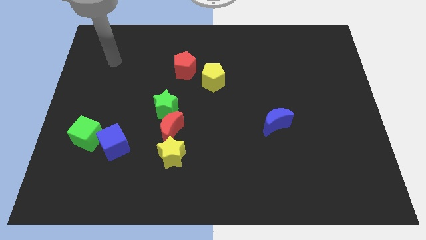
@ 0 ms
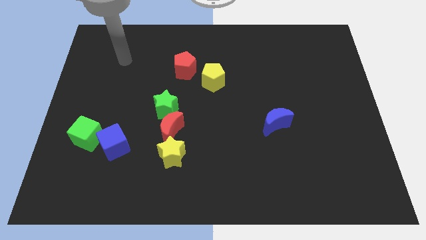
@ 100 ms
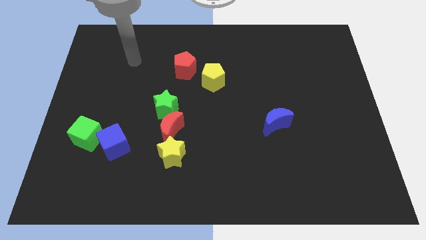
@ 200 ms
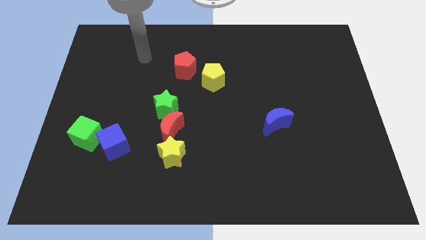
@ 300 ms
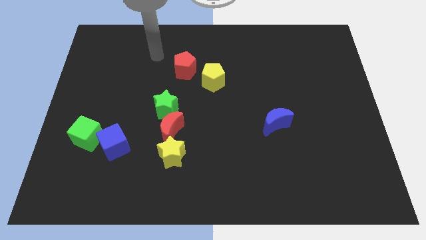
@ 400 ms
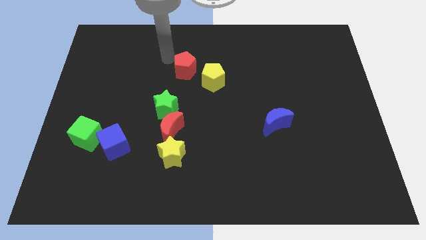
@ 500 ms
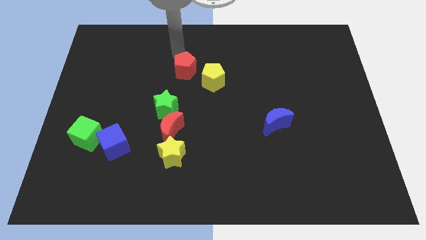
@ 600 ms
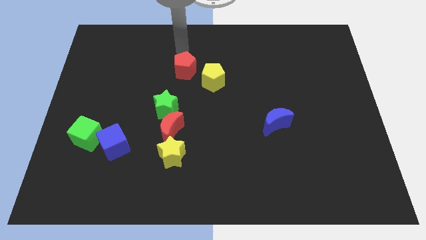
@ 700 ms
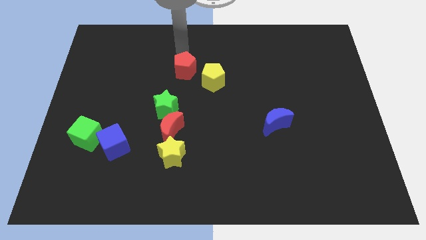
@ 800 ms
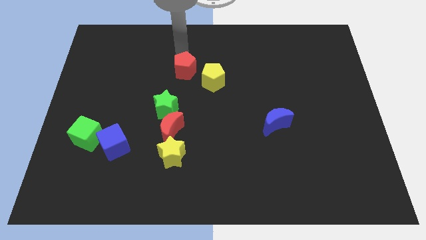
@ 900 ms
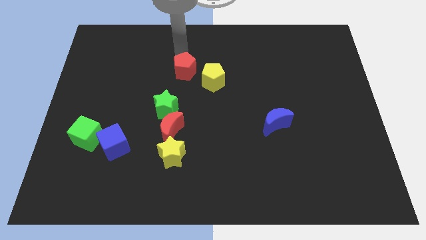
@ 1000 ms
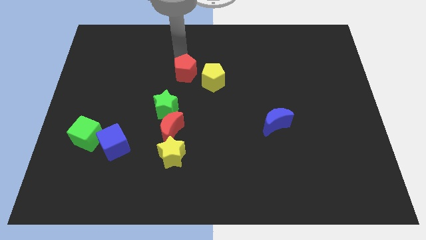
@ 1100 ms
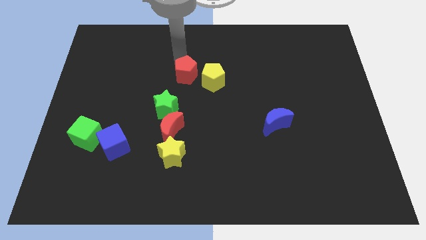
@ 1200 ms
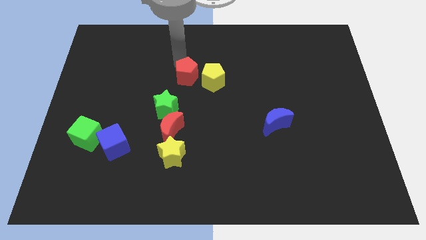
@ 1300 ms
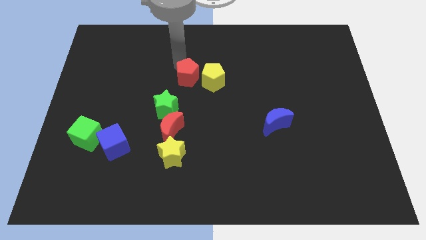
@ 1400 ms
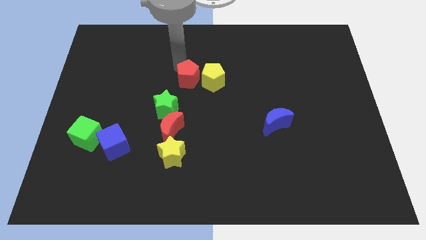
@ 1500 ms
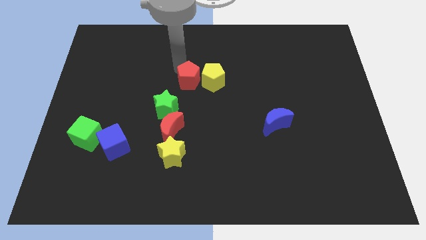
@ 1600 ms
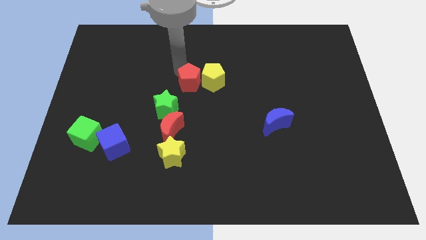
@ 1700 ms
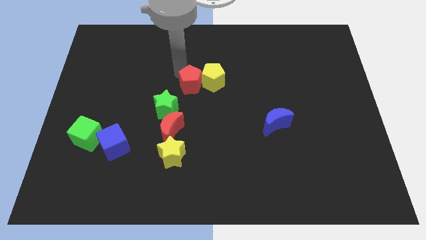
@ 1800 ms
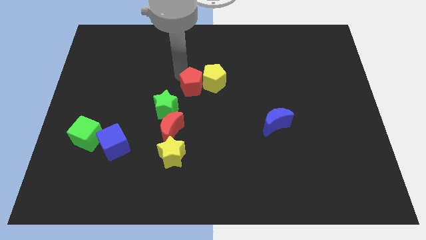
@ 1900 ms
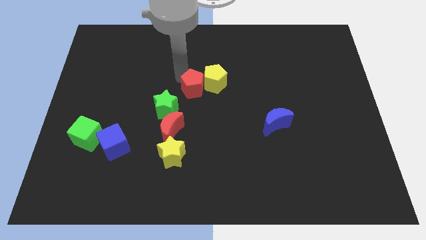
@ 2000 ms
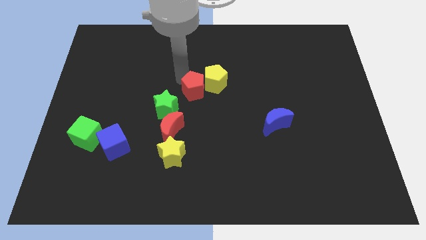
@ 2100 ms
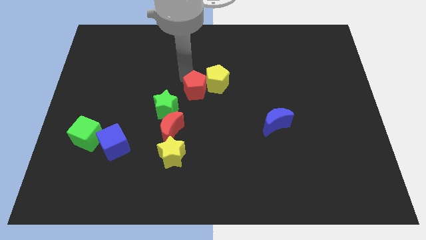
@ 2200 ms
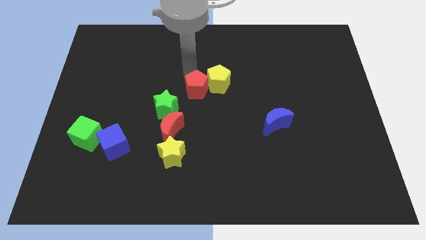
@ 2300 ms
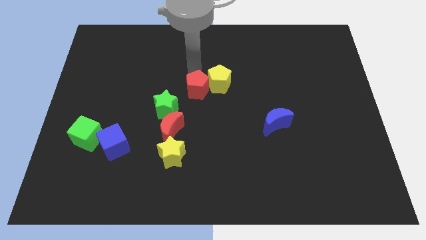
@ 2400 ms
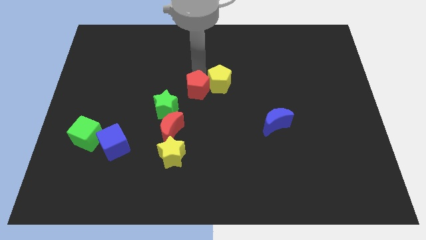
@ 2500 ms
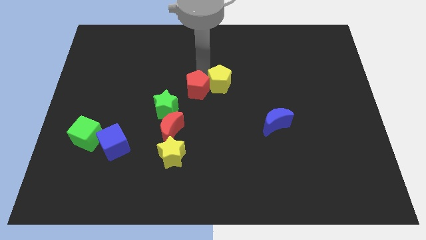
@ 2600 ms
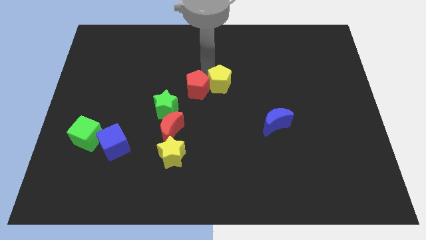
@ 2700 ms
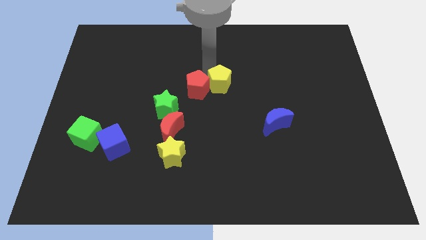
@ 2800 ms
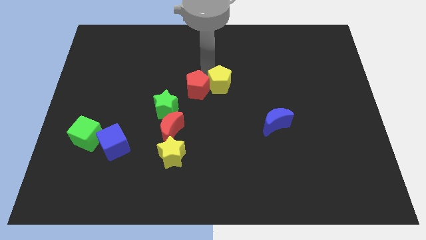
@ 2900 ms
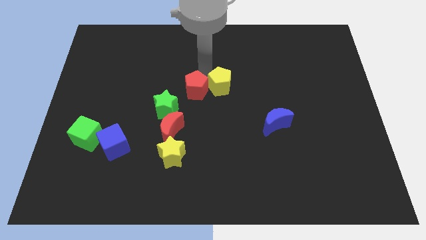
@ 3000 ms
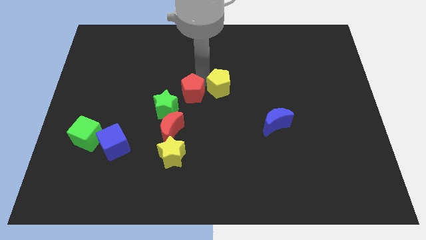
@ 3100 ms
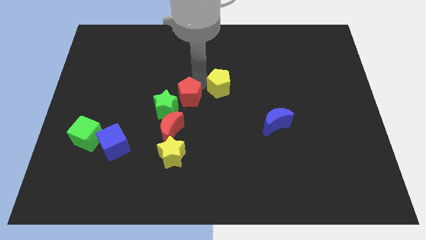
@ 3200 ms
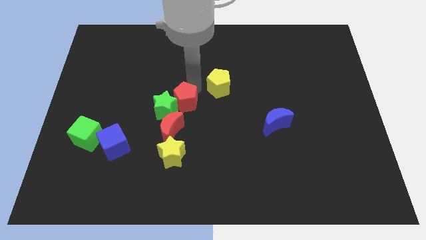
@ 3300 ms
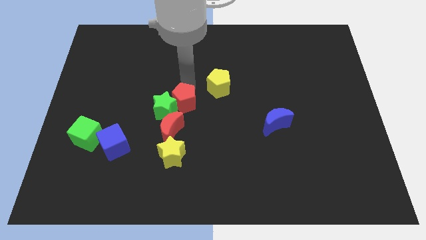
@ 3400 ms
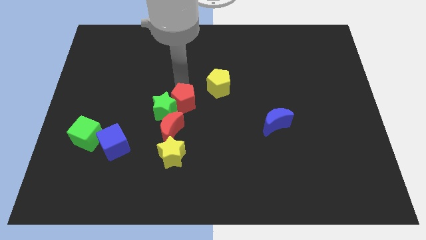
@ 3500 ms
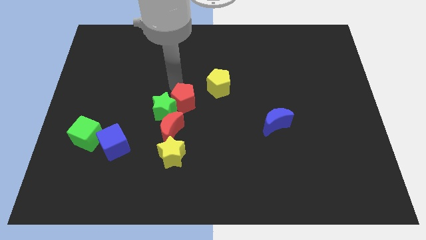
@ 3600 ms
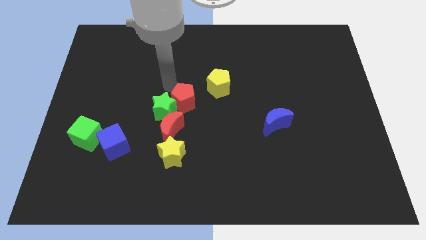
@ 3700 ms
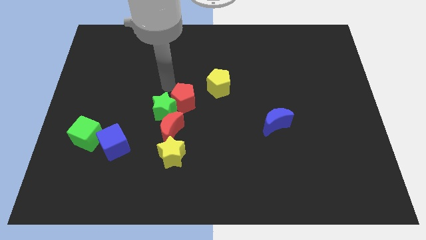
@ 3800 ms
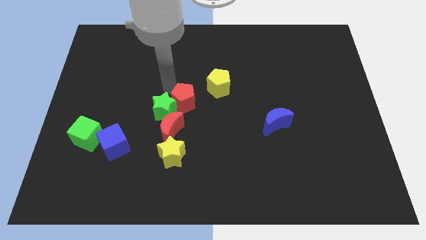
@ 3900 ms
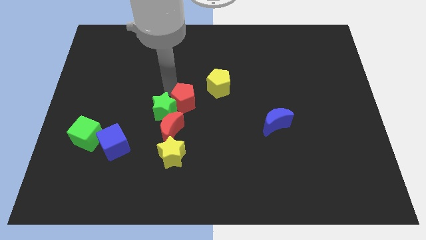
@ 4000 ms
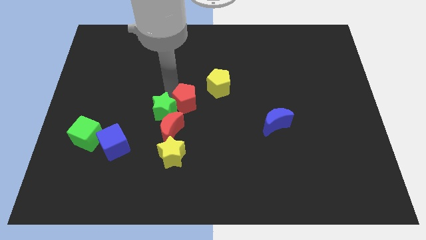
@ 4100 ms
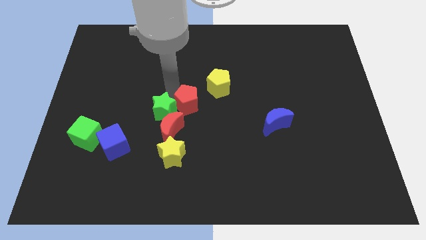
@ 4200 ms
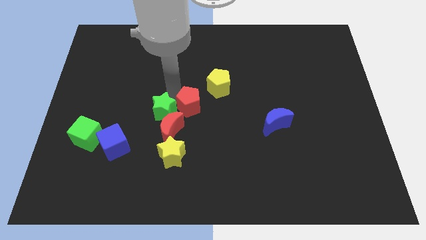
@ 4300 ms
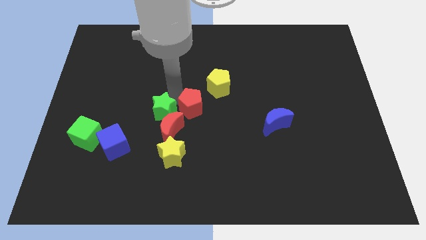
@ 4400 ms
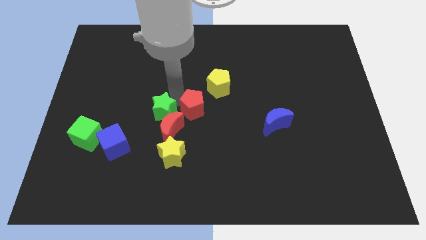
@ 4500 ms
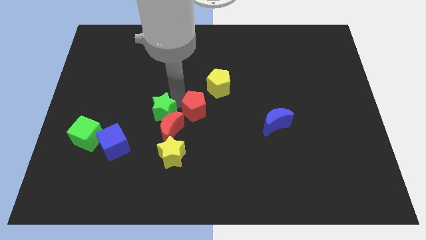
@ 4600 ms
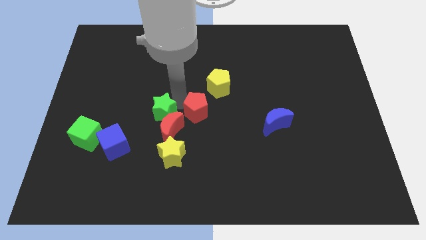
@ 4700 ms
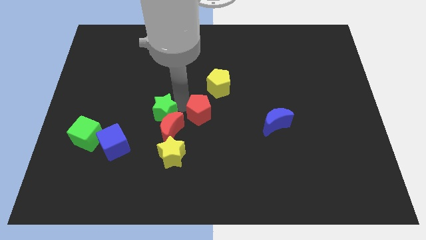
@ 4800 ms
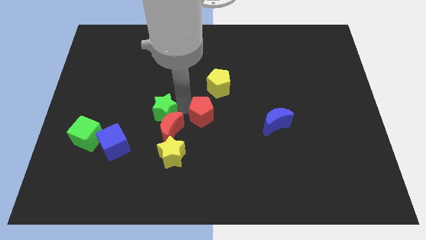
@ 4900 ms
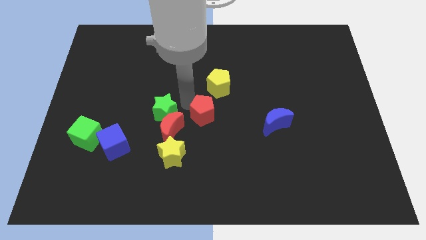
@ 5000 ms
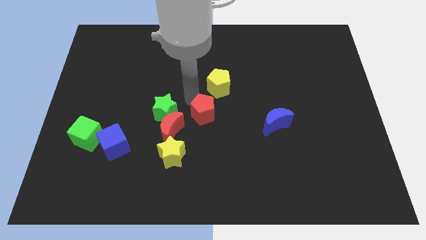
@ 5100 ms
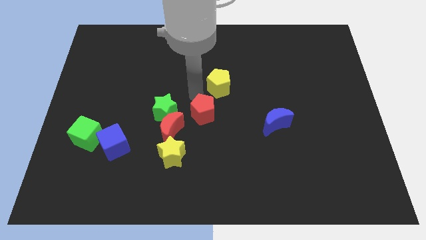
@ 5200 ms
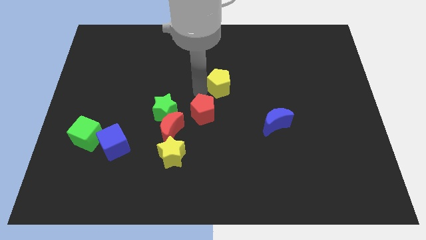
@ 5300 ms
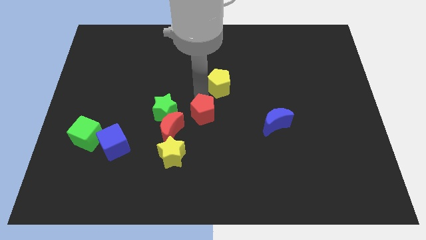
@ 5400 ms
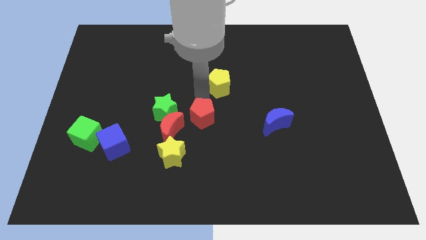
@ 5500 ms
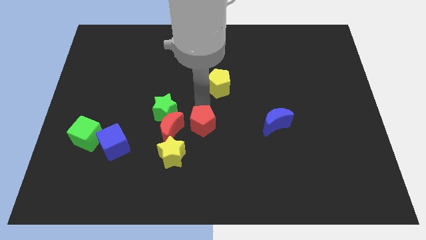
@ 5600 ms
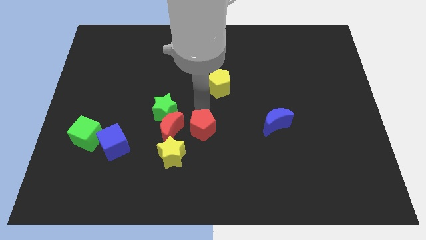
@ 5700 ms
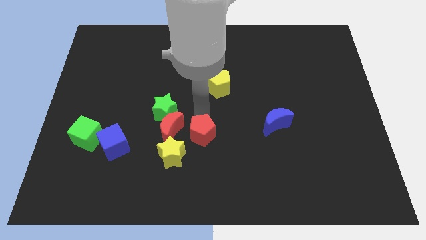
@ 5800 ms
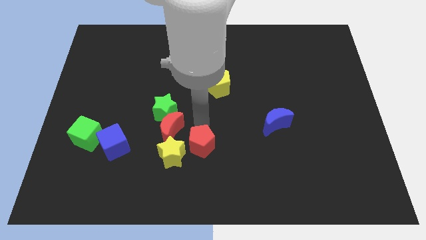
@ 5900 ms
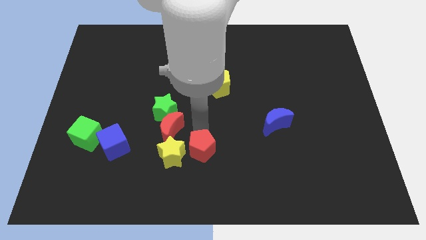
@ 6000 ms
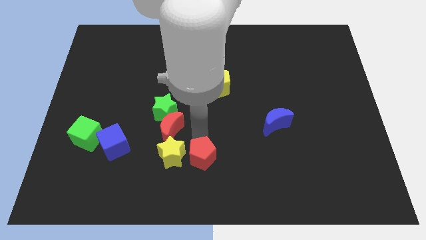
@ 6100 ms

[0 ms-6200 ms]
push the red pentagon to the bottom
